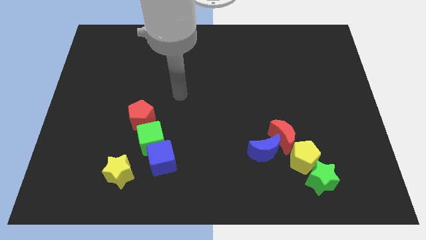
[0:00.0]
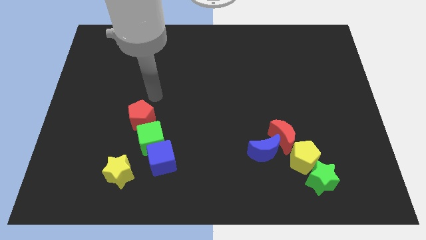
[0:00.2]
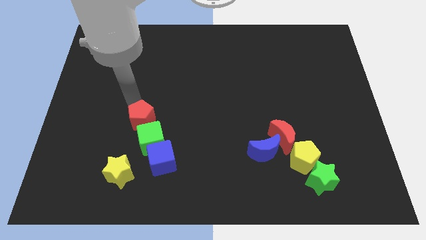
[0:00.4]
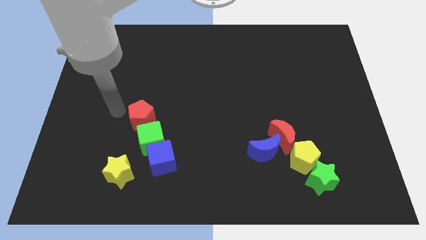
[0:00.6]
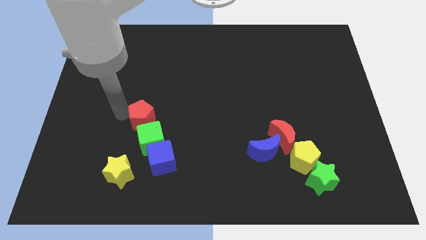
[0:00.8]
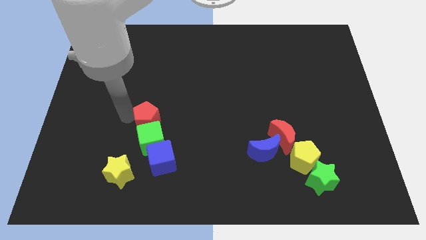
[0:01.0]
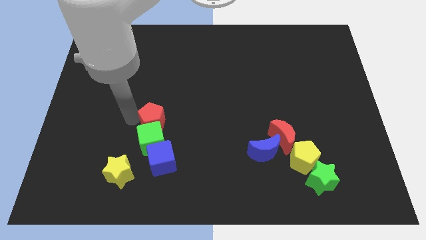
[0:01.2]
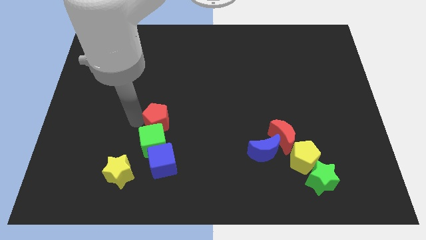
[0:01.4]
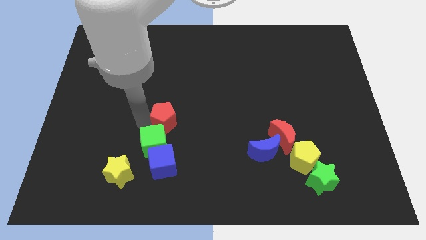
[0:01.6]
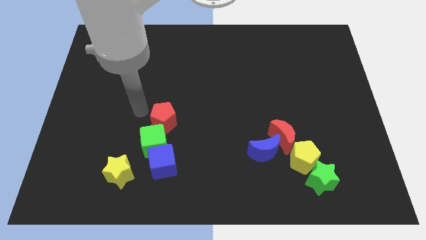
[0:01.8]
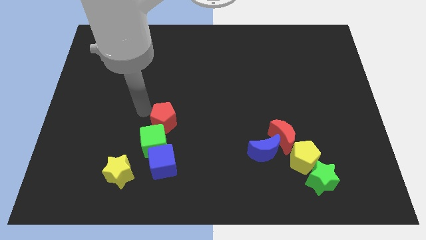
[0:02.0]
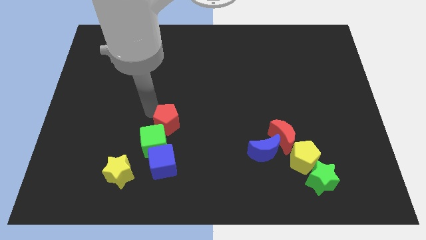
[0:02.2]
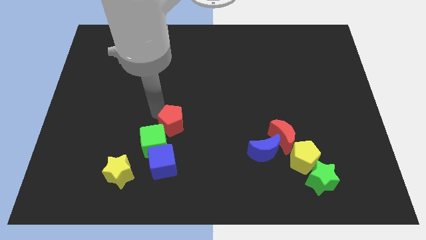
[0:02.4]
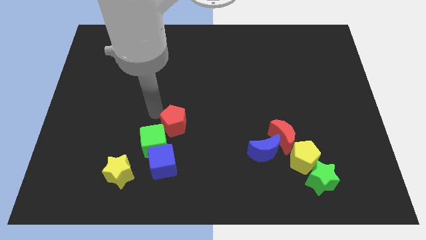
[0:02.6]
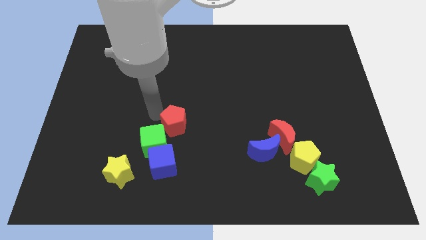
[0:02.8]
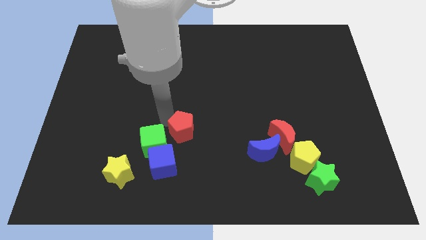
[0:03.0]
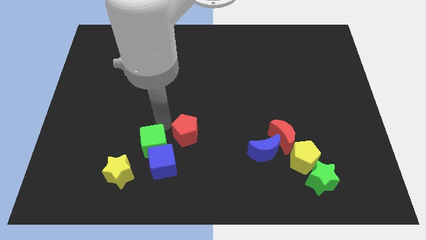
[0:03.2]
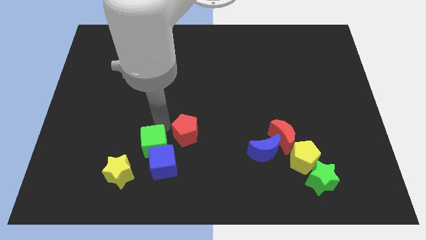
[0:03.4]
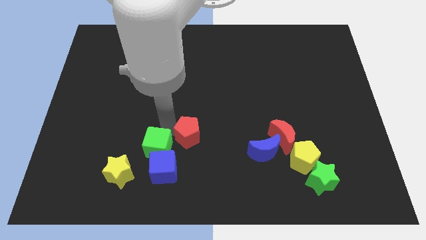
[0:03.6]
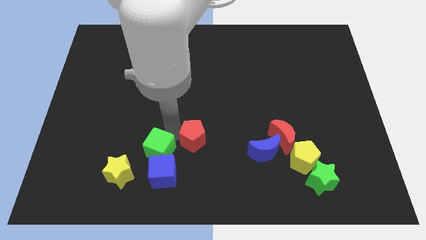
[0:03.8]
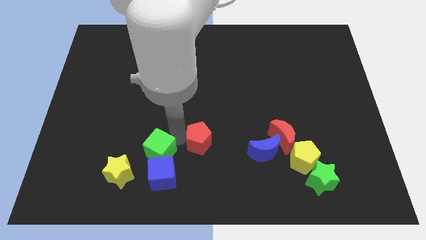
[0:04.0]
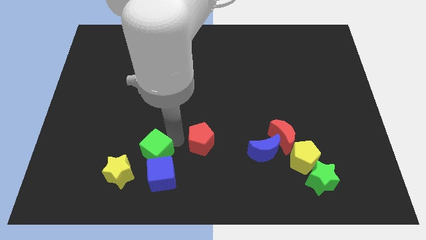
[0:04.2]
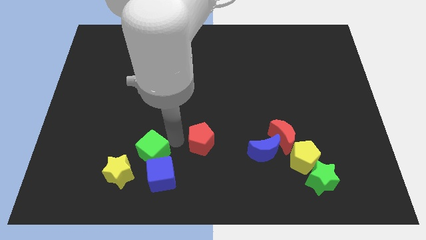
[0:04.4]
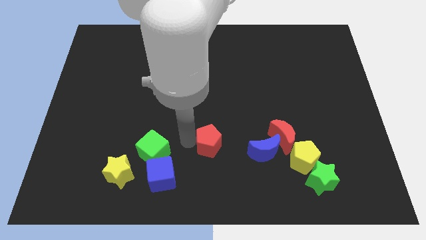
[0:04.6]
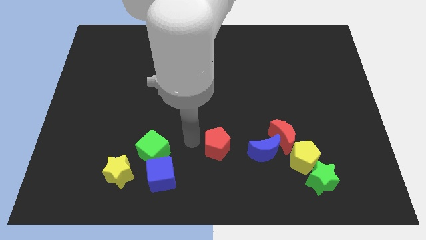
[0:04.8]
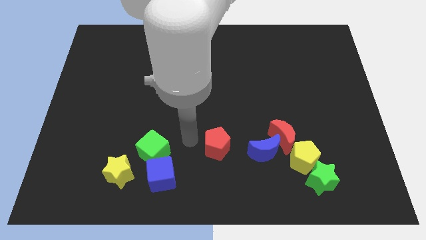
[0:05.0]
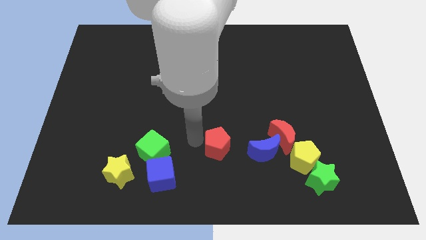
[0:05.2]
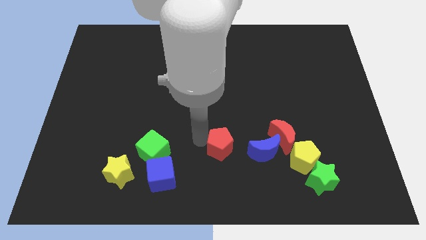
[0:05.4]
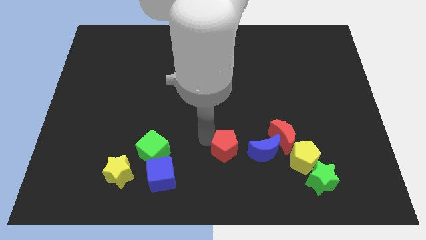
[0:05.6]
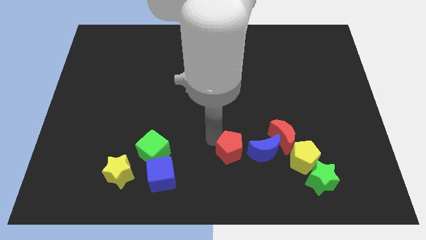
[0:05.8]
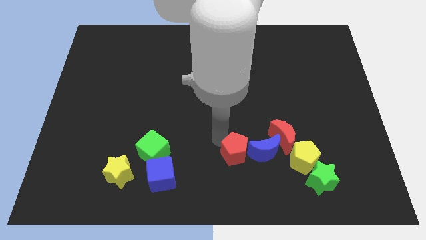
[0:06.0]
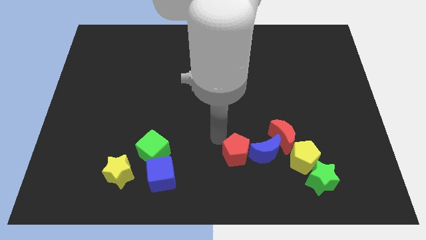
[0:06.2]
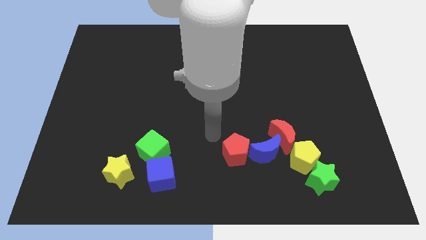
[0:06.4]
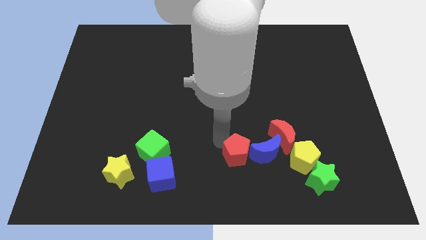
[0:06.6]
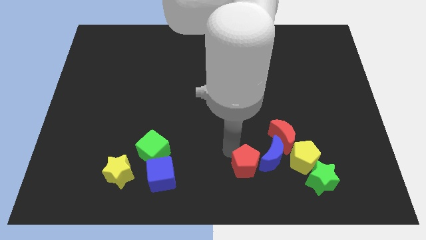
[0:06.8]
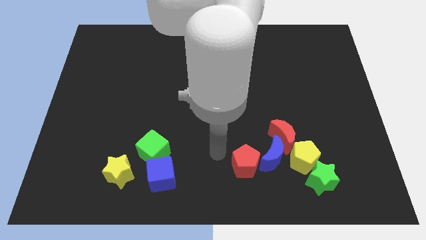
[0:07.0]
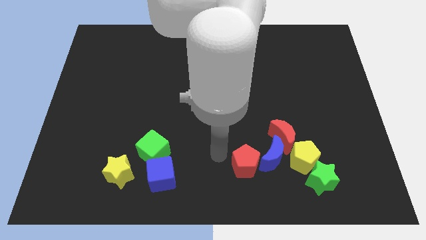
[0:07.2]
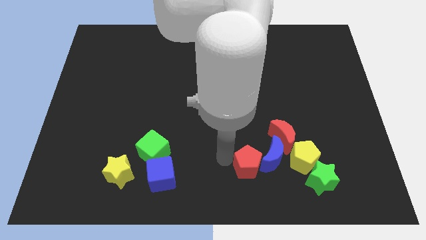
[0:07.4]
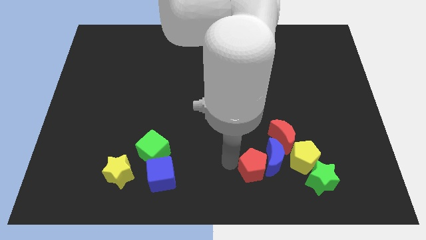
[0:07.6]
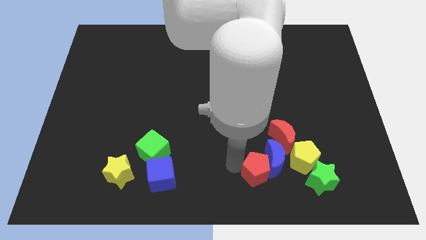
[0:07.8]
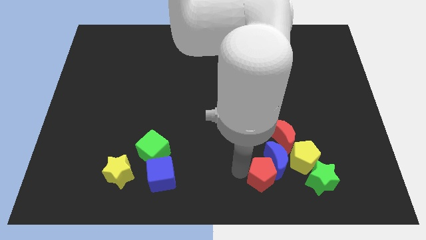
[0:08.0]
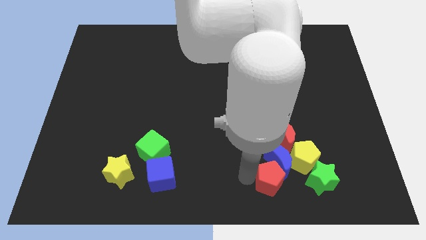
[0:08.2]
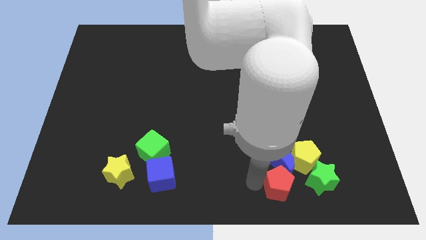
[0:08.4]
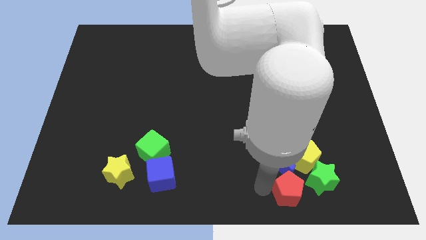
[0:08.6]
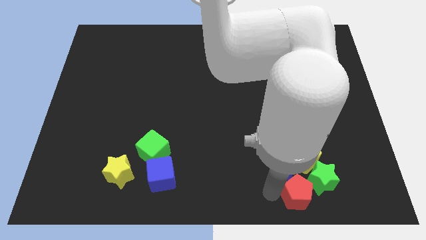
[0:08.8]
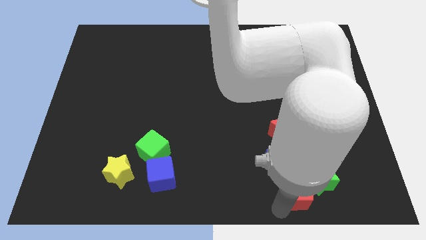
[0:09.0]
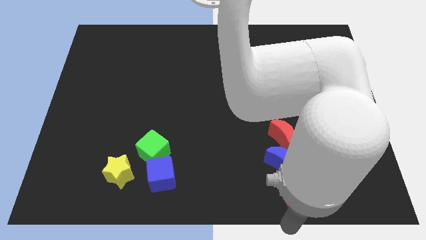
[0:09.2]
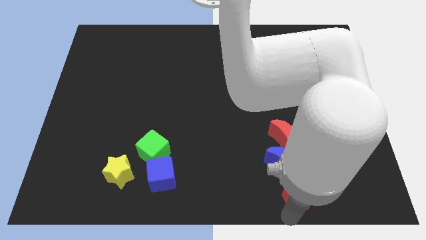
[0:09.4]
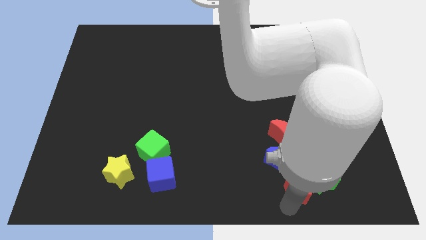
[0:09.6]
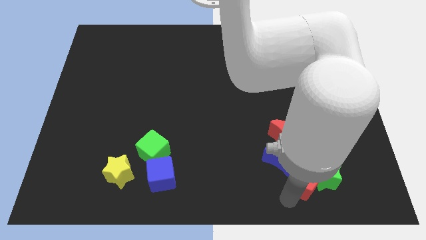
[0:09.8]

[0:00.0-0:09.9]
push the red pentagon close to the yellow pentagon

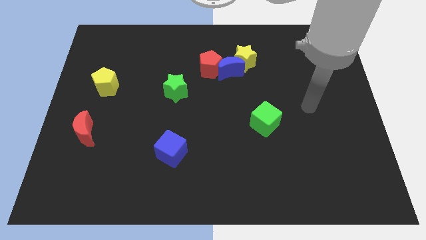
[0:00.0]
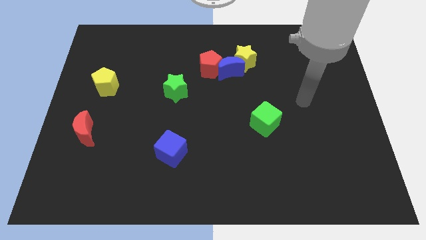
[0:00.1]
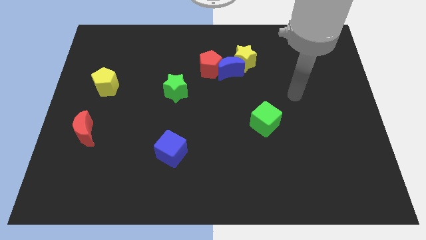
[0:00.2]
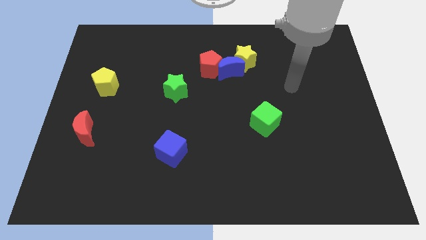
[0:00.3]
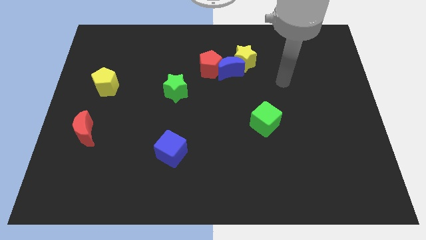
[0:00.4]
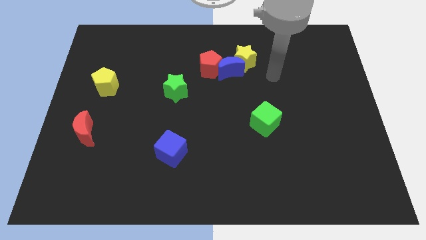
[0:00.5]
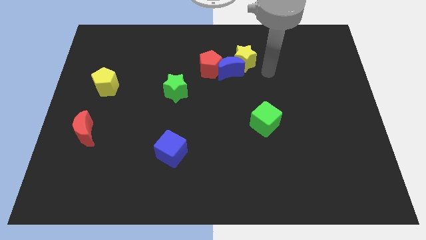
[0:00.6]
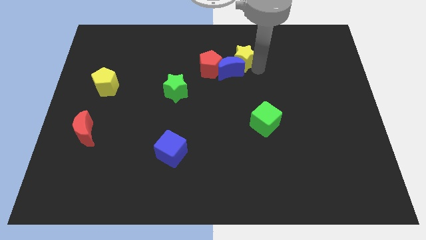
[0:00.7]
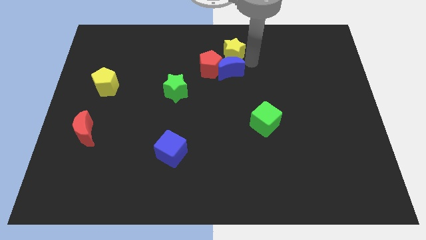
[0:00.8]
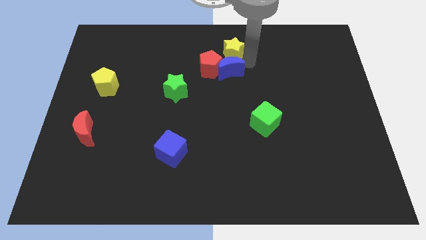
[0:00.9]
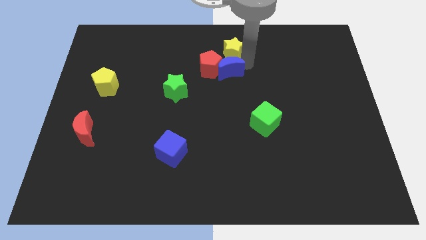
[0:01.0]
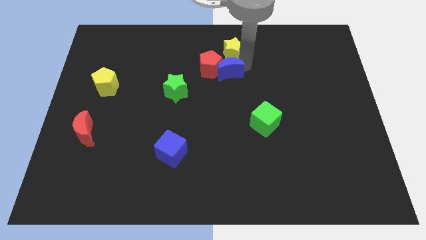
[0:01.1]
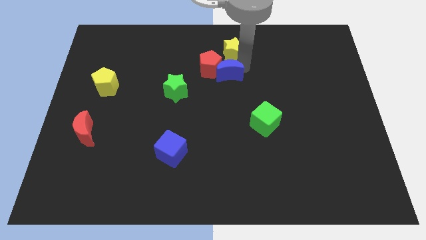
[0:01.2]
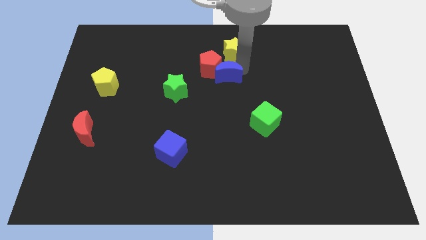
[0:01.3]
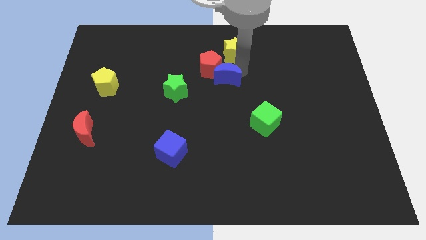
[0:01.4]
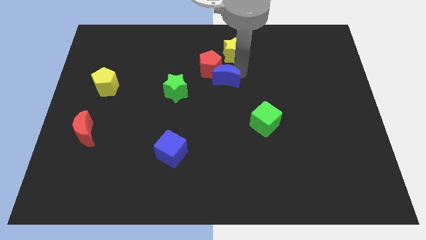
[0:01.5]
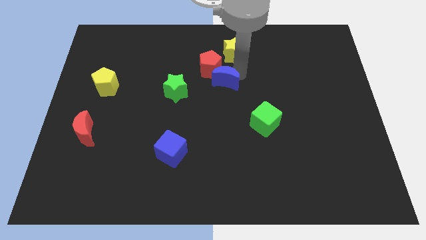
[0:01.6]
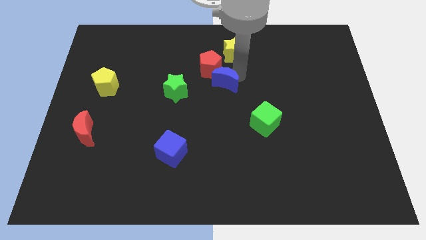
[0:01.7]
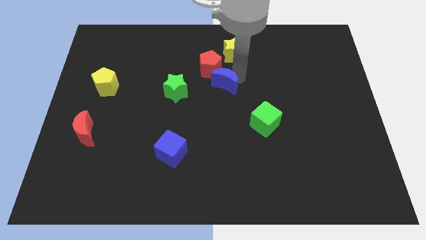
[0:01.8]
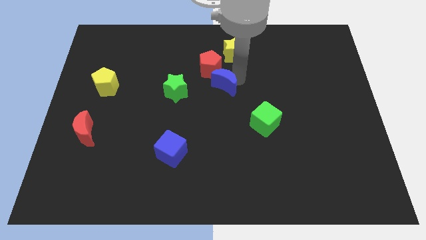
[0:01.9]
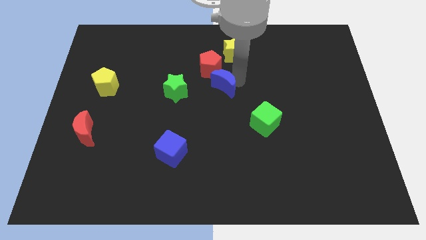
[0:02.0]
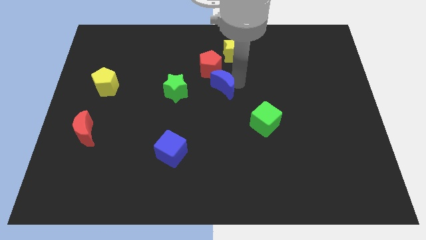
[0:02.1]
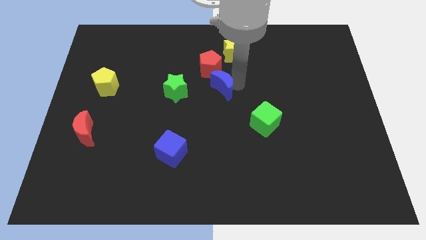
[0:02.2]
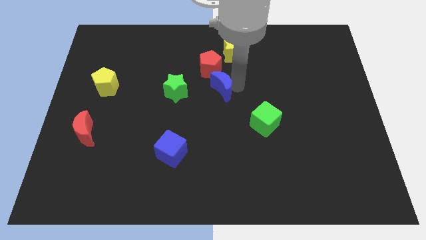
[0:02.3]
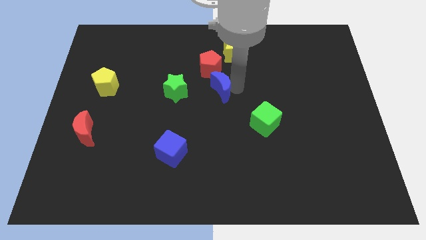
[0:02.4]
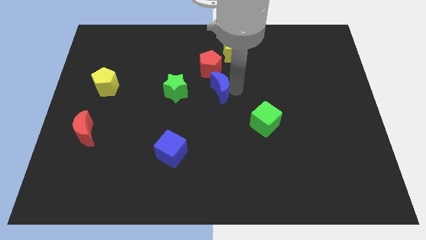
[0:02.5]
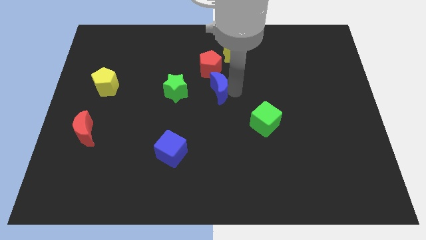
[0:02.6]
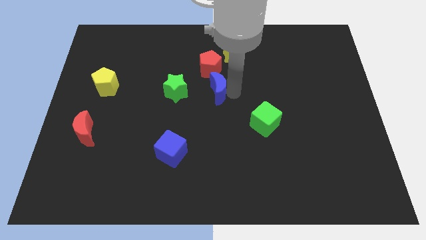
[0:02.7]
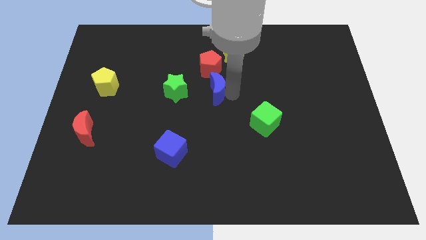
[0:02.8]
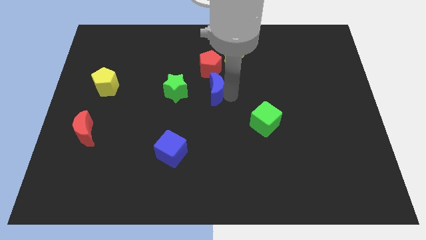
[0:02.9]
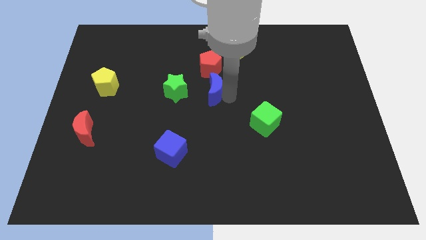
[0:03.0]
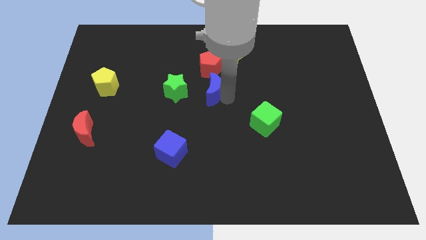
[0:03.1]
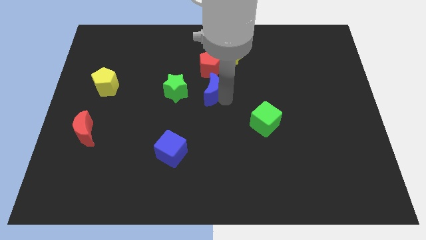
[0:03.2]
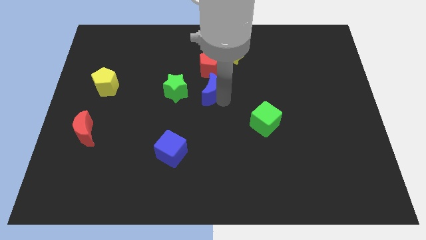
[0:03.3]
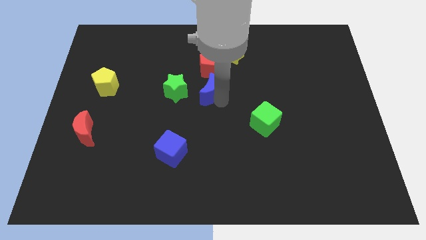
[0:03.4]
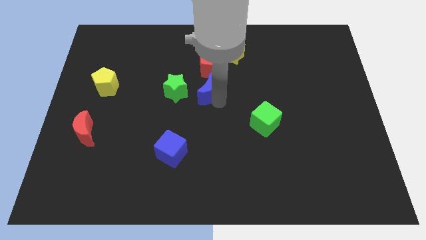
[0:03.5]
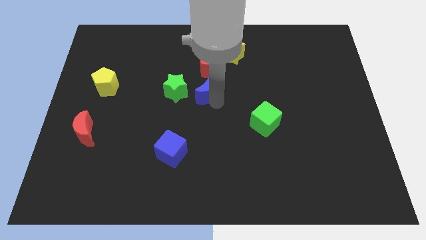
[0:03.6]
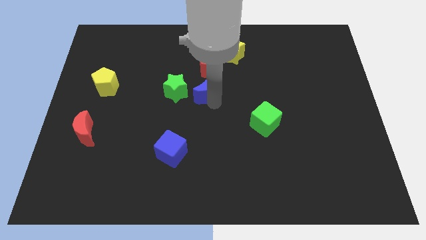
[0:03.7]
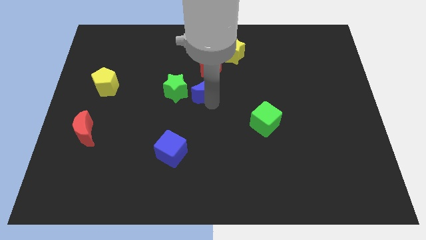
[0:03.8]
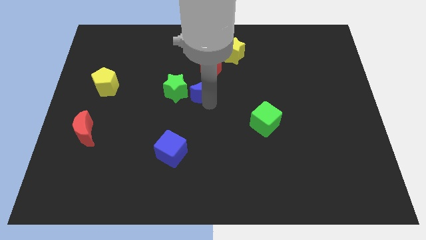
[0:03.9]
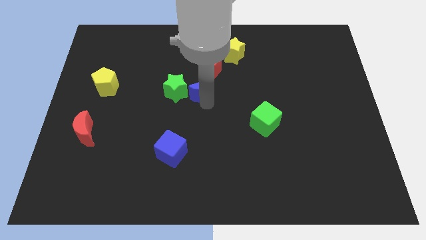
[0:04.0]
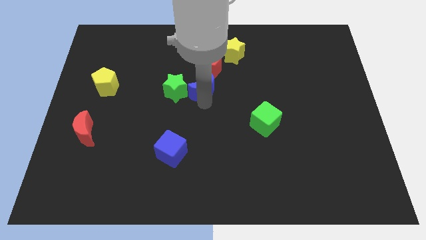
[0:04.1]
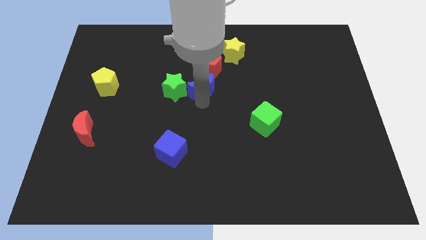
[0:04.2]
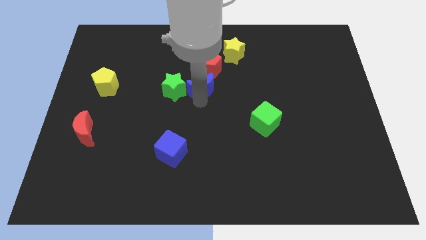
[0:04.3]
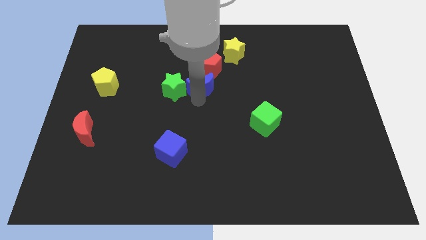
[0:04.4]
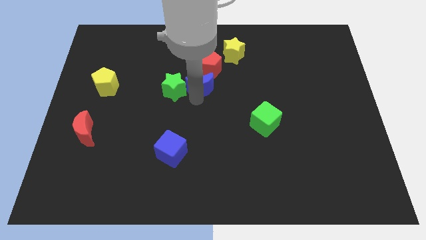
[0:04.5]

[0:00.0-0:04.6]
slide the blue moon towards the green star
